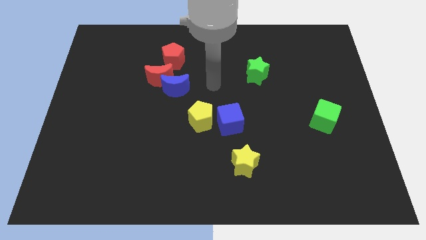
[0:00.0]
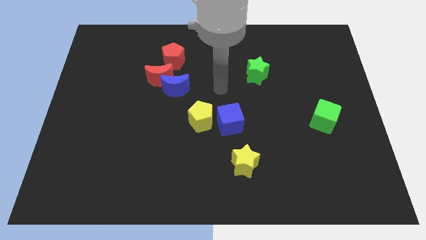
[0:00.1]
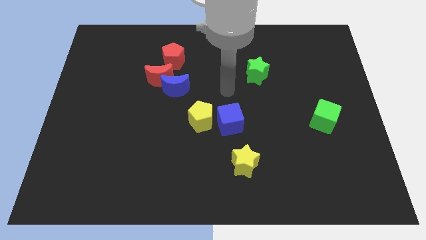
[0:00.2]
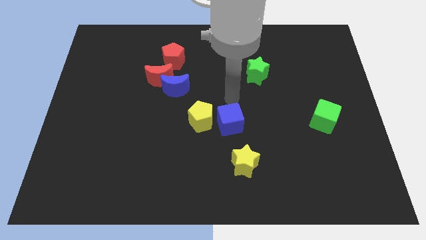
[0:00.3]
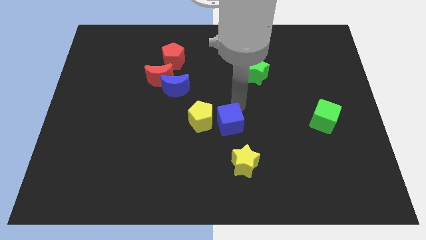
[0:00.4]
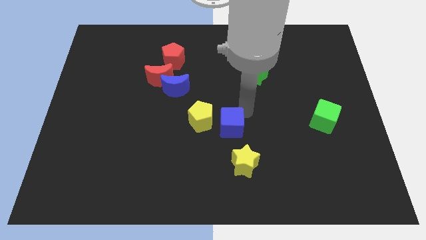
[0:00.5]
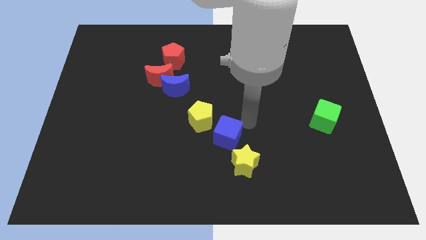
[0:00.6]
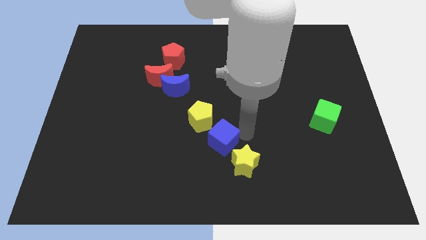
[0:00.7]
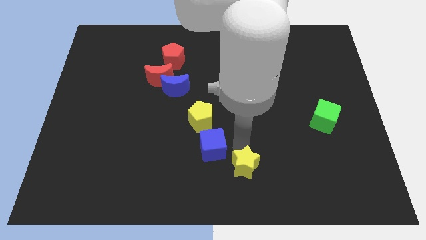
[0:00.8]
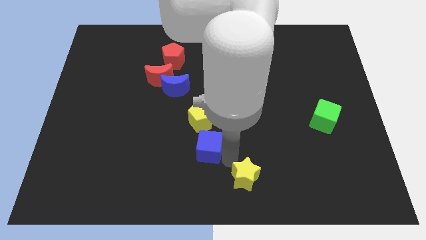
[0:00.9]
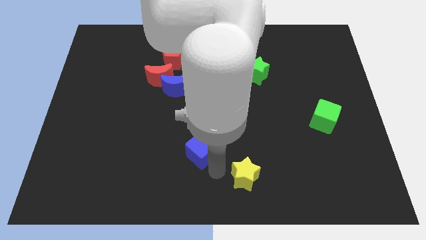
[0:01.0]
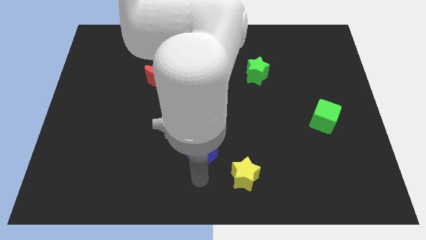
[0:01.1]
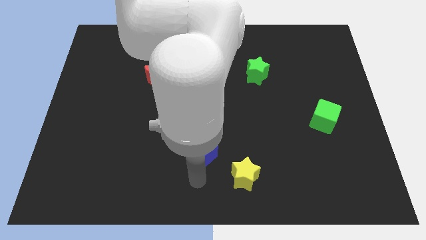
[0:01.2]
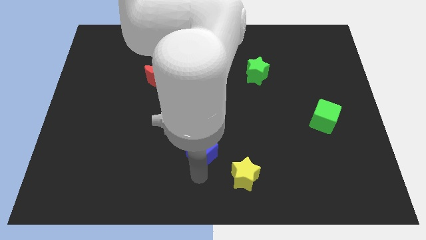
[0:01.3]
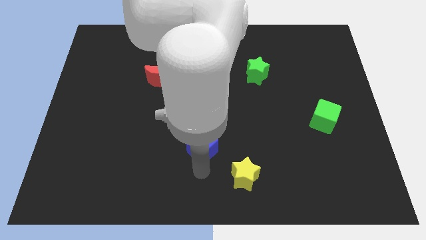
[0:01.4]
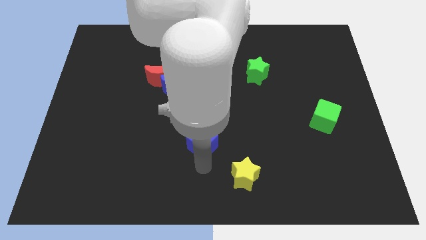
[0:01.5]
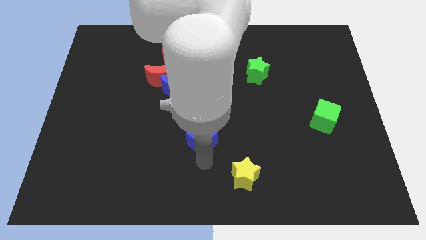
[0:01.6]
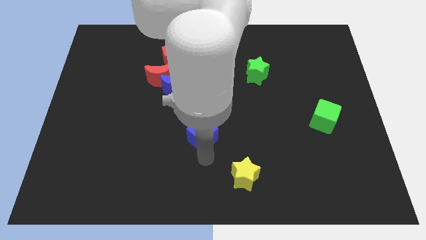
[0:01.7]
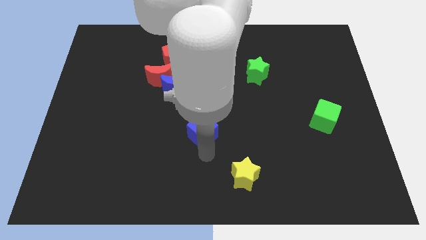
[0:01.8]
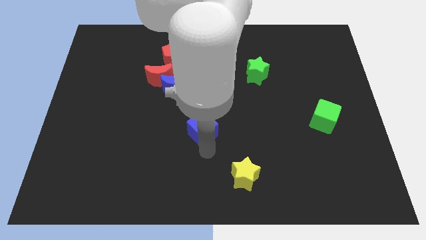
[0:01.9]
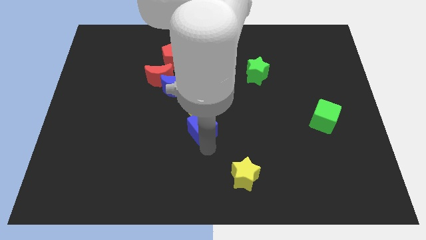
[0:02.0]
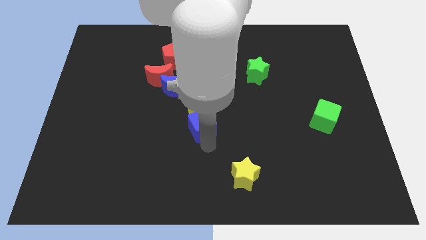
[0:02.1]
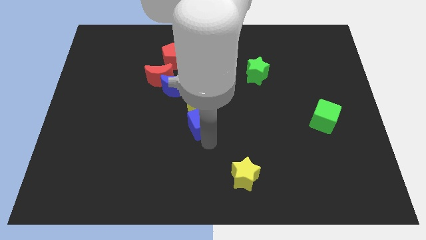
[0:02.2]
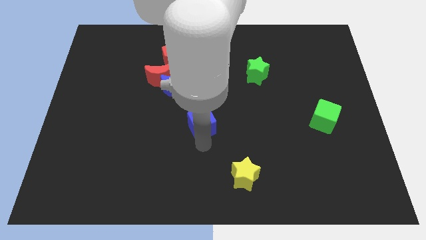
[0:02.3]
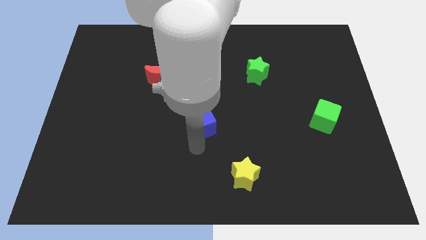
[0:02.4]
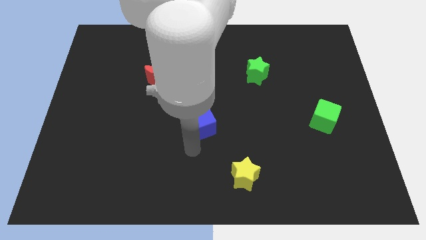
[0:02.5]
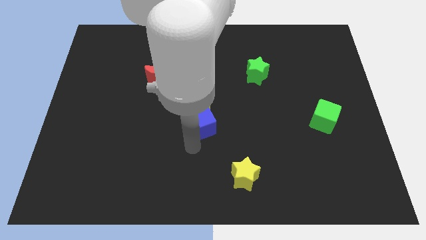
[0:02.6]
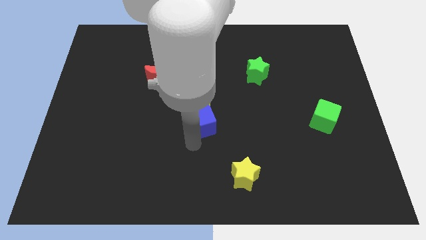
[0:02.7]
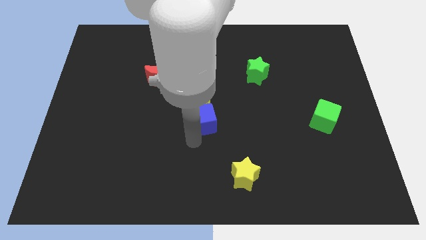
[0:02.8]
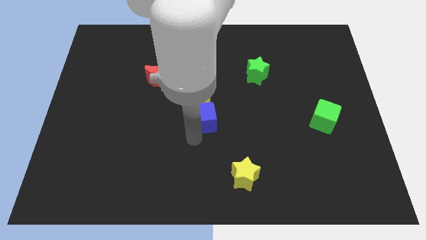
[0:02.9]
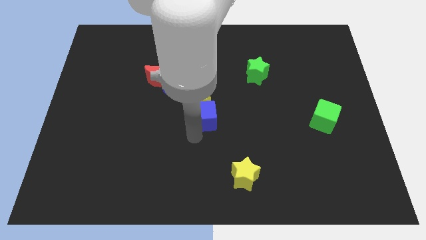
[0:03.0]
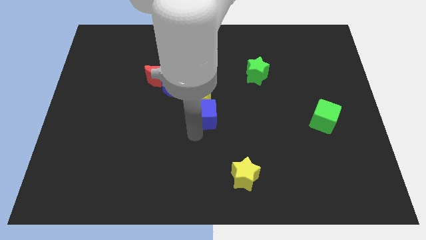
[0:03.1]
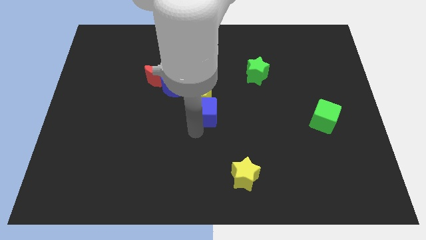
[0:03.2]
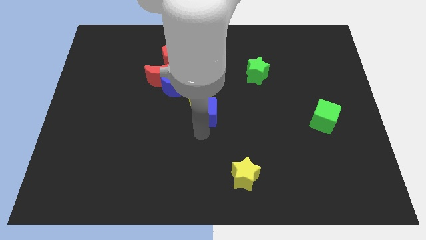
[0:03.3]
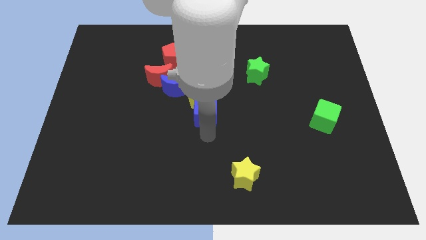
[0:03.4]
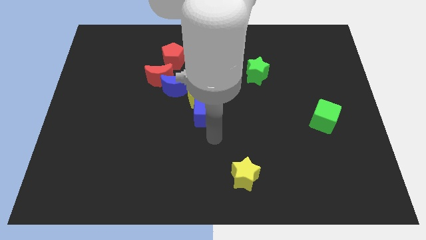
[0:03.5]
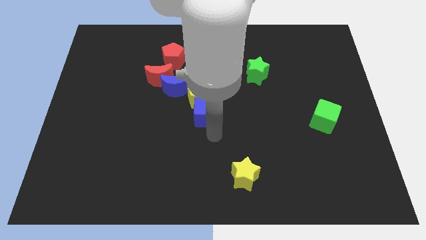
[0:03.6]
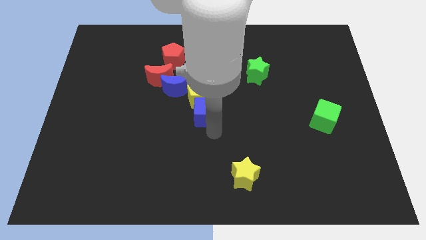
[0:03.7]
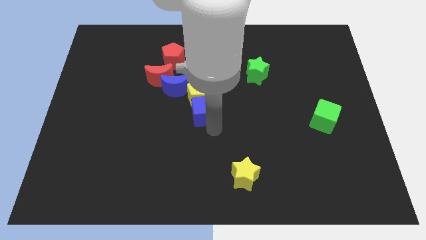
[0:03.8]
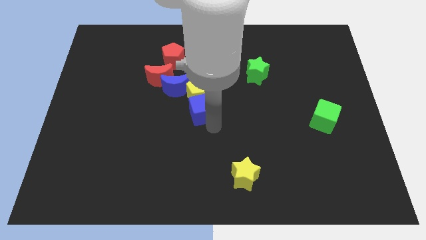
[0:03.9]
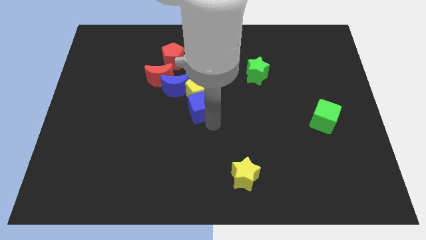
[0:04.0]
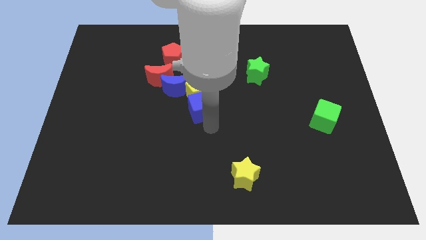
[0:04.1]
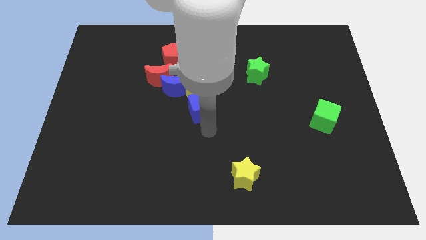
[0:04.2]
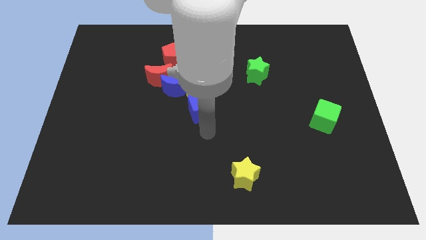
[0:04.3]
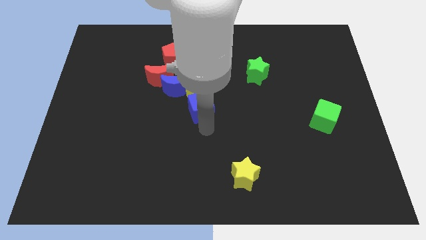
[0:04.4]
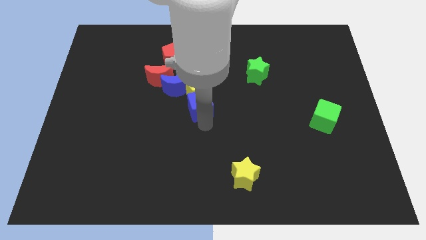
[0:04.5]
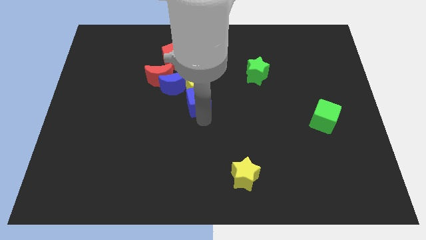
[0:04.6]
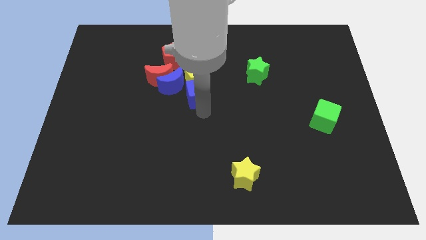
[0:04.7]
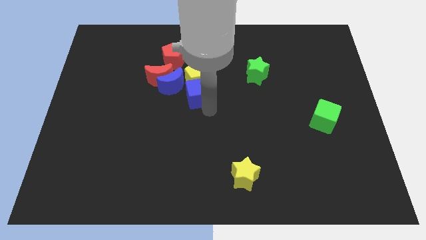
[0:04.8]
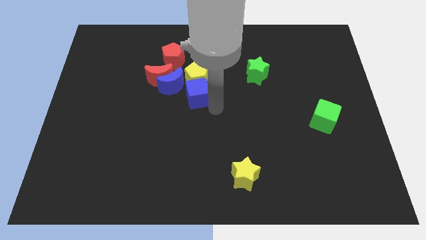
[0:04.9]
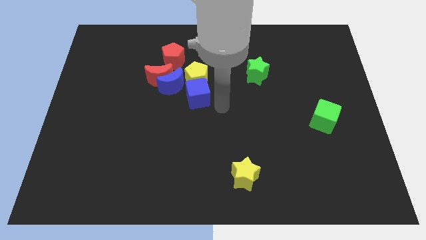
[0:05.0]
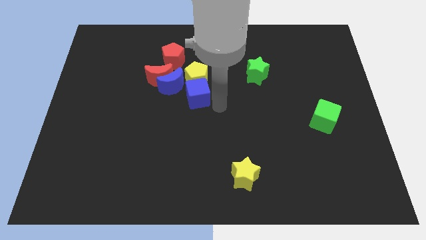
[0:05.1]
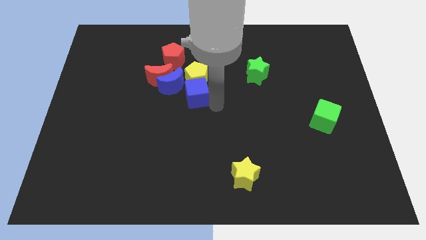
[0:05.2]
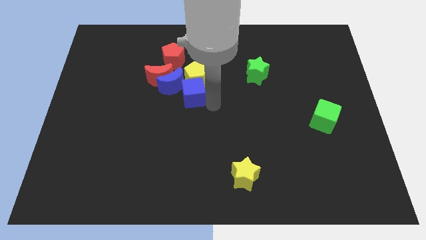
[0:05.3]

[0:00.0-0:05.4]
slide the blue cube close to the blue moon

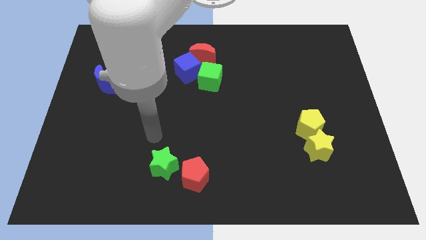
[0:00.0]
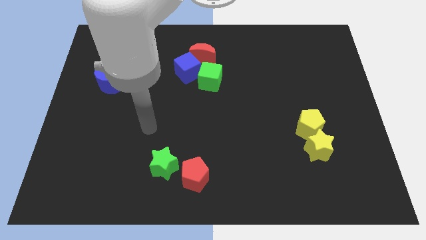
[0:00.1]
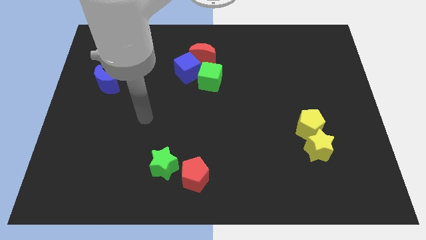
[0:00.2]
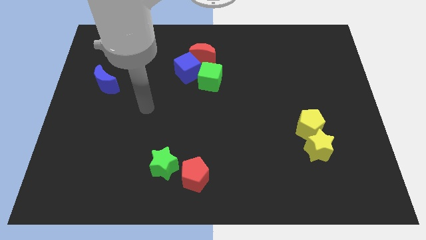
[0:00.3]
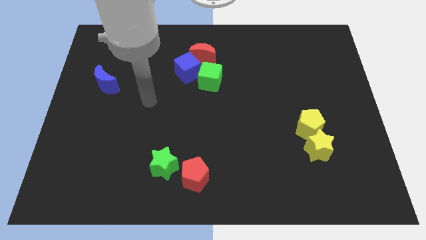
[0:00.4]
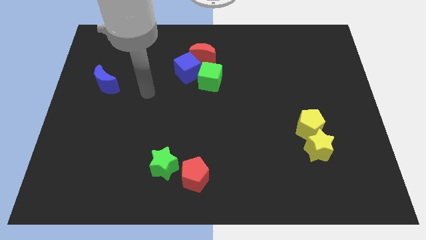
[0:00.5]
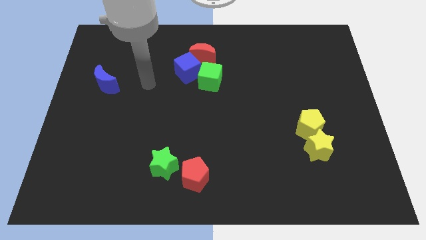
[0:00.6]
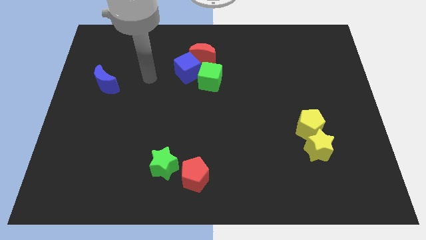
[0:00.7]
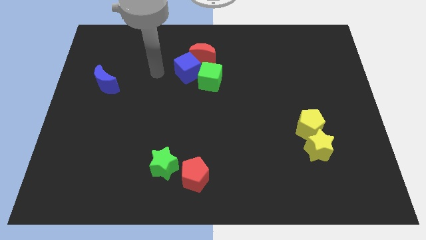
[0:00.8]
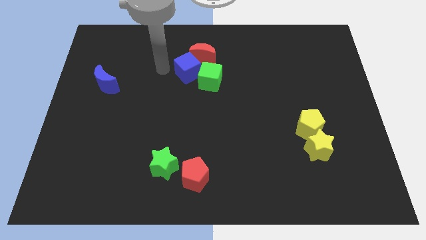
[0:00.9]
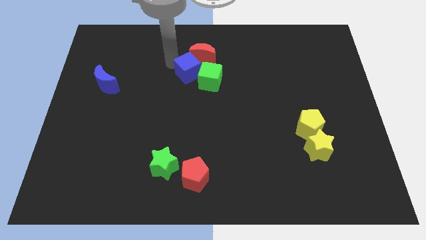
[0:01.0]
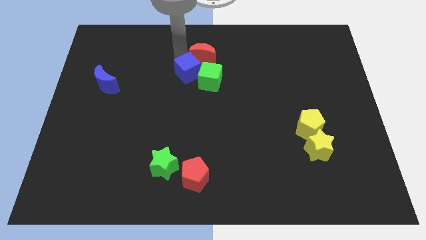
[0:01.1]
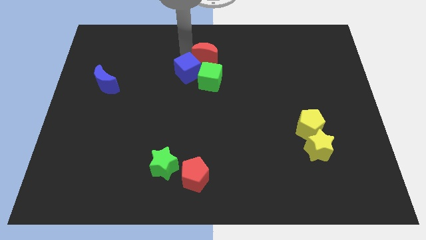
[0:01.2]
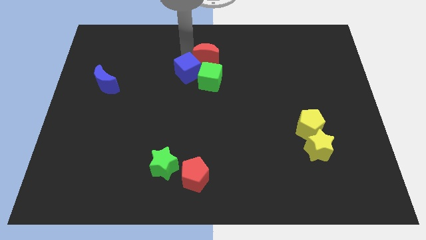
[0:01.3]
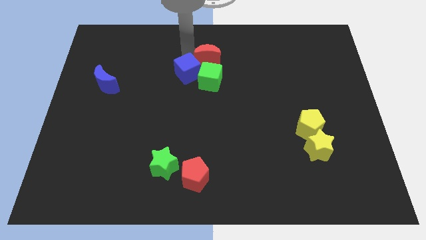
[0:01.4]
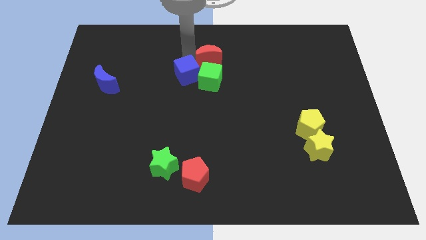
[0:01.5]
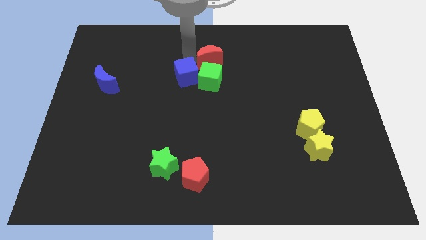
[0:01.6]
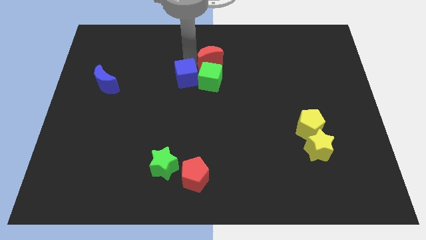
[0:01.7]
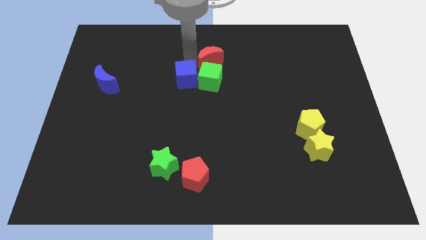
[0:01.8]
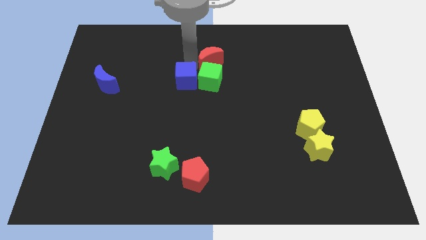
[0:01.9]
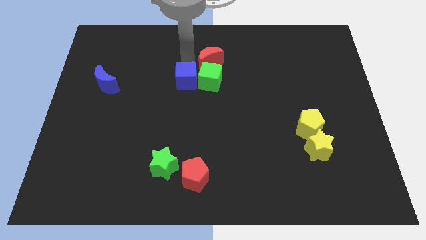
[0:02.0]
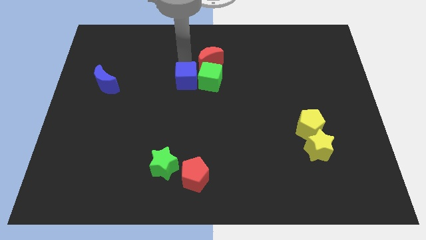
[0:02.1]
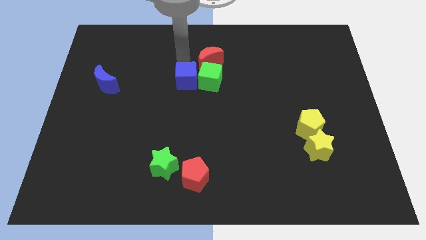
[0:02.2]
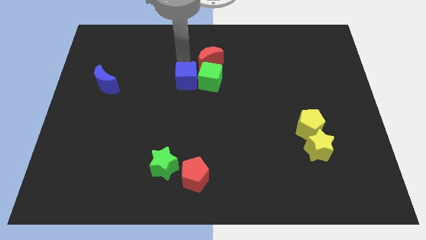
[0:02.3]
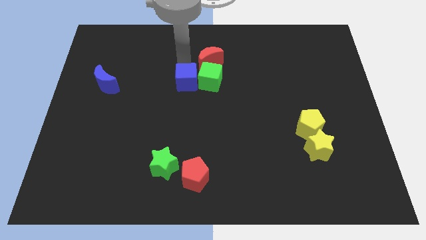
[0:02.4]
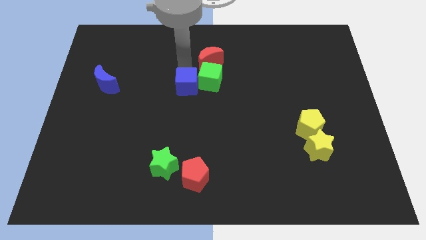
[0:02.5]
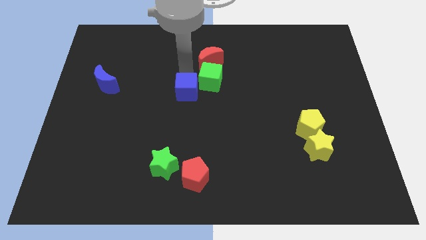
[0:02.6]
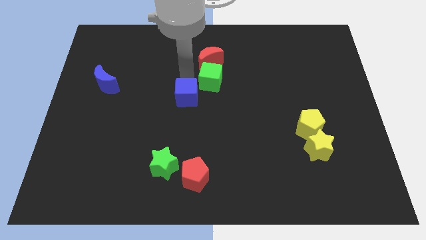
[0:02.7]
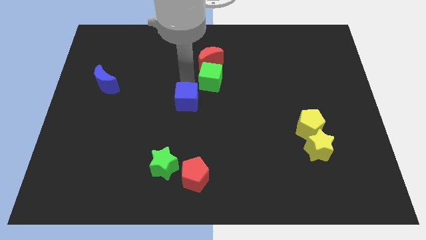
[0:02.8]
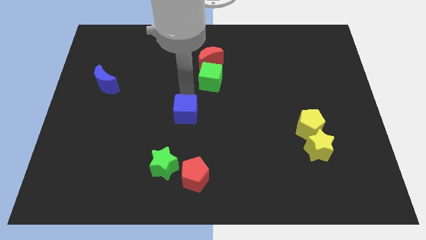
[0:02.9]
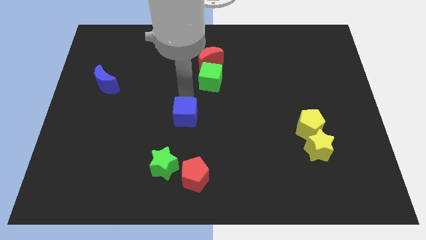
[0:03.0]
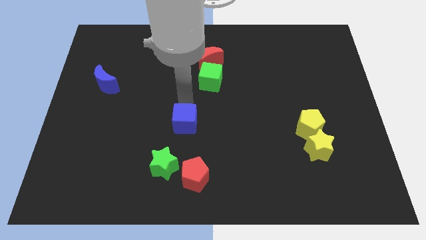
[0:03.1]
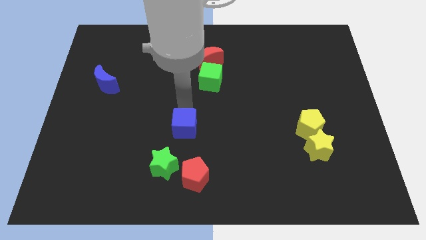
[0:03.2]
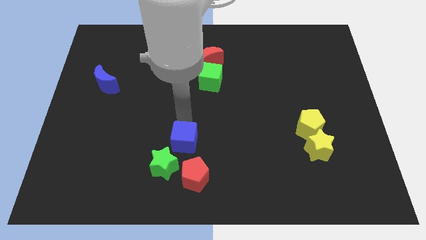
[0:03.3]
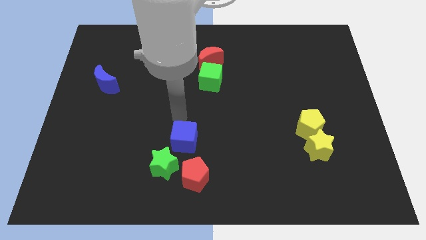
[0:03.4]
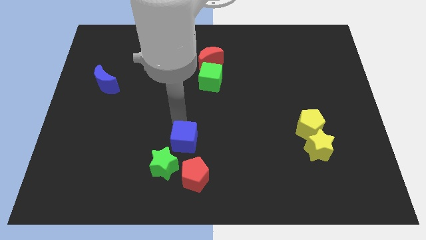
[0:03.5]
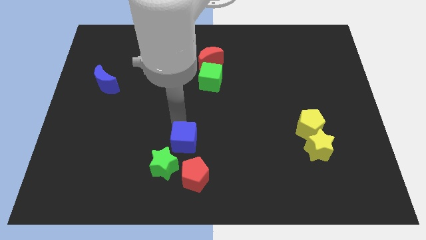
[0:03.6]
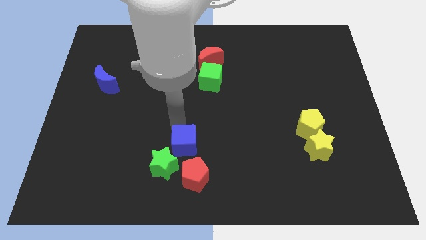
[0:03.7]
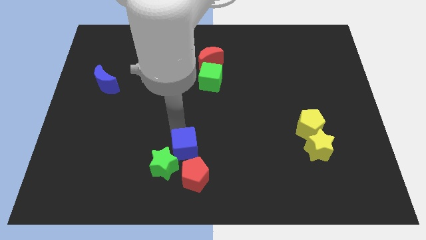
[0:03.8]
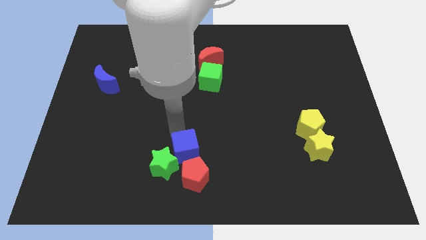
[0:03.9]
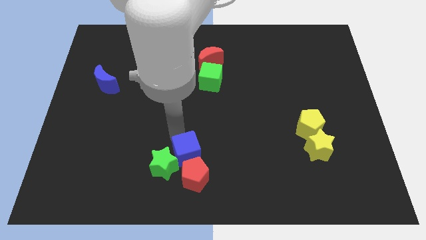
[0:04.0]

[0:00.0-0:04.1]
move the blue cube next to the red pentagon
